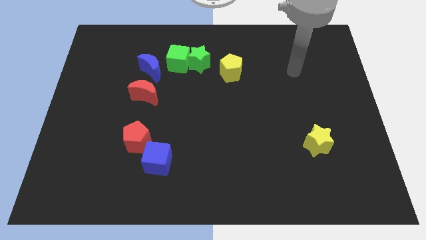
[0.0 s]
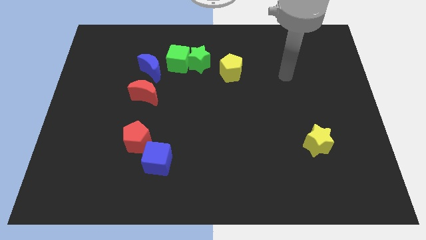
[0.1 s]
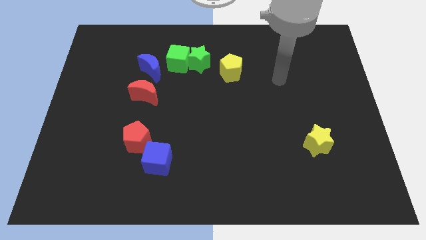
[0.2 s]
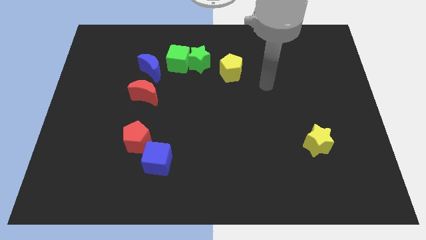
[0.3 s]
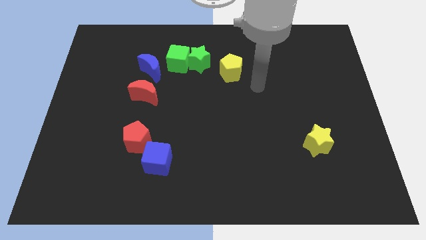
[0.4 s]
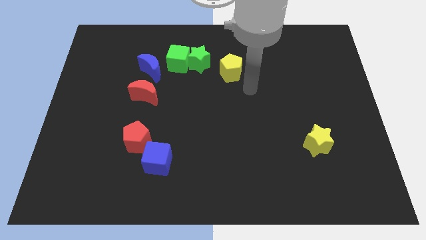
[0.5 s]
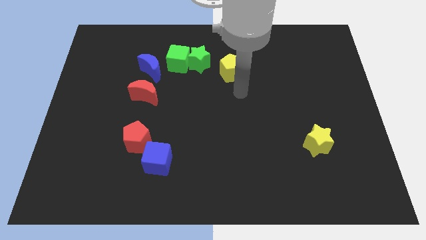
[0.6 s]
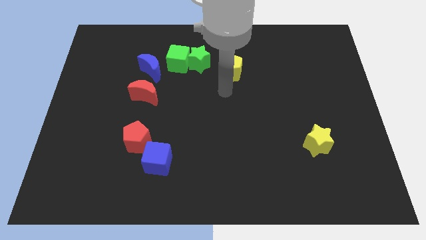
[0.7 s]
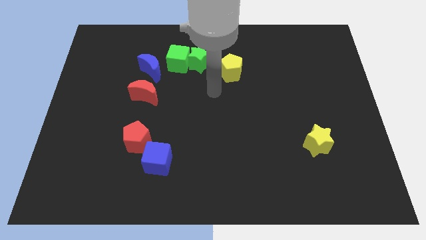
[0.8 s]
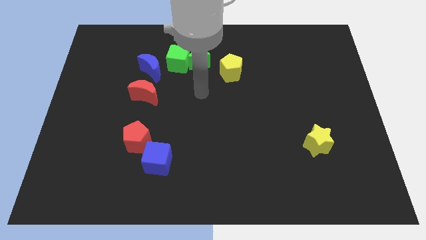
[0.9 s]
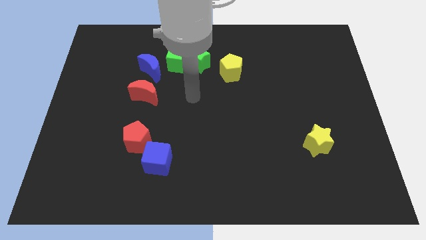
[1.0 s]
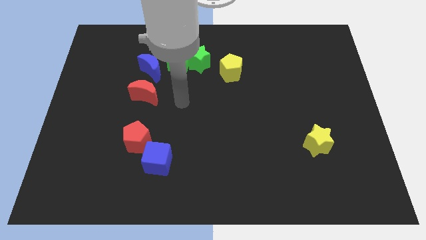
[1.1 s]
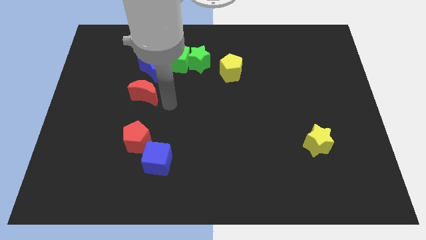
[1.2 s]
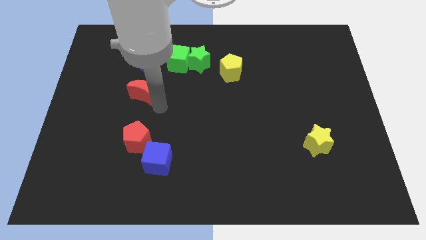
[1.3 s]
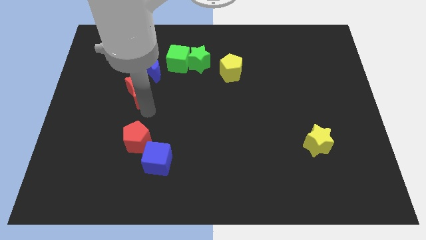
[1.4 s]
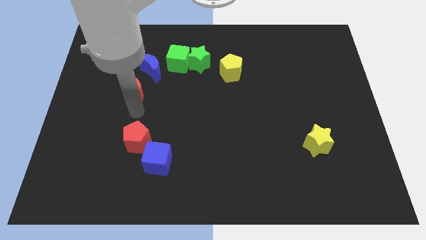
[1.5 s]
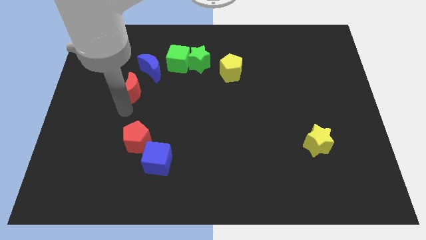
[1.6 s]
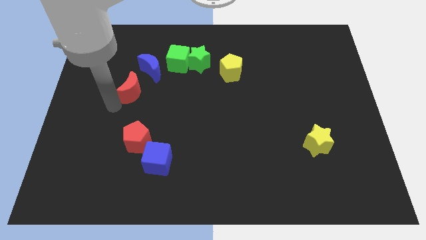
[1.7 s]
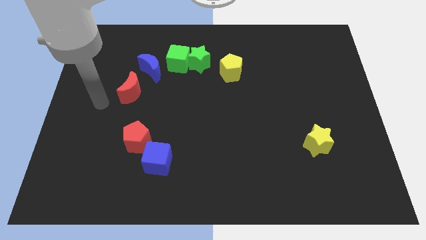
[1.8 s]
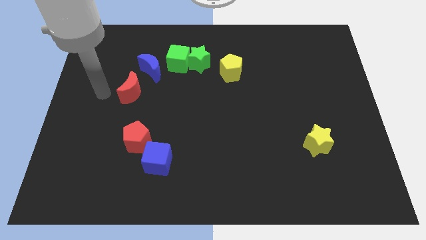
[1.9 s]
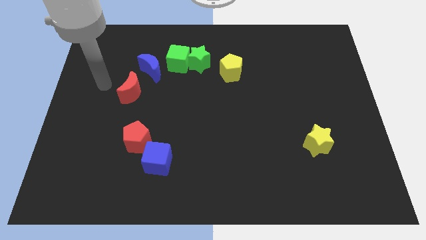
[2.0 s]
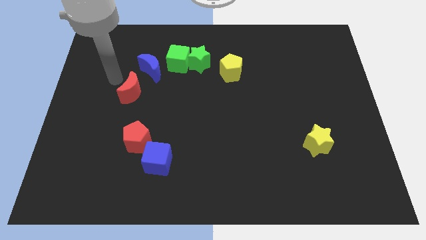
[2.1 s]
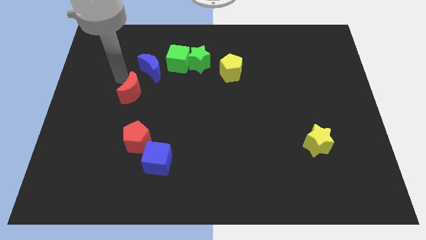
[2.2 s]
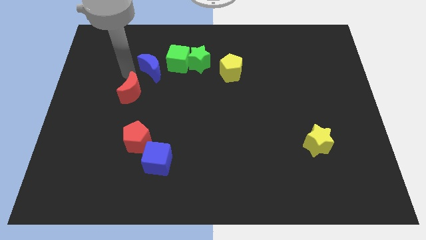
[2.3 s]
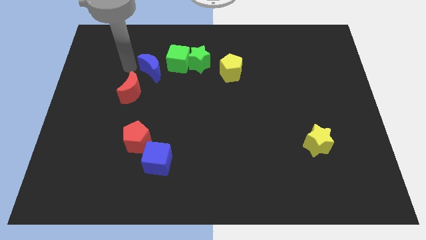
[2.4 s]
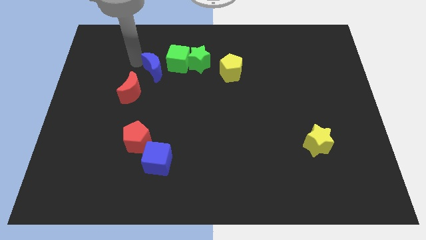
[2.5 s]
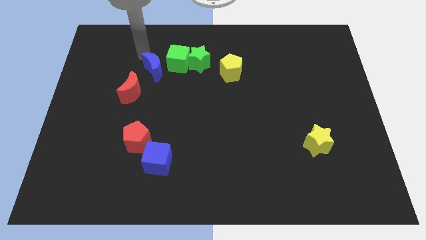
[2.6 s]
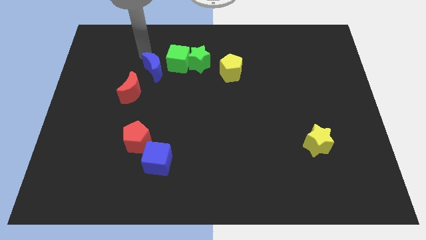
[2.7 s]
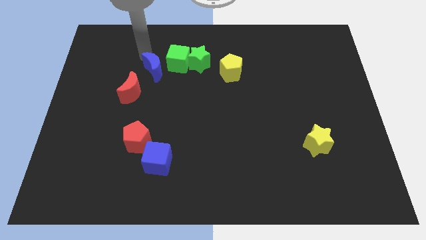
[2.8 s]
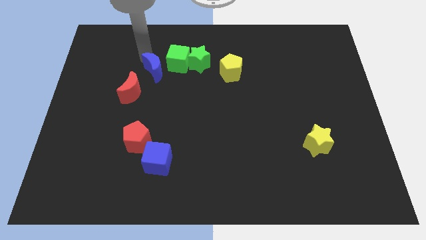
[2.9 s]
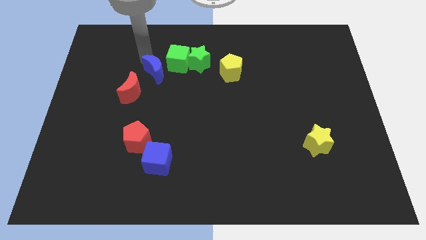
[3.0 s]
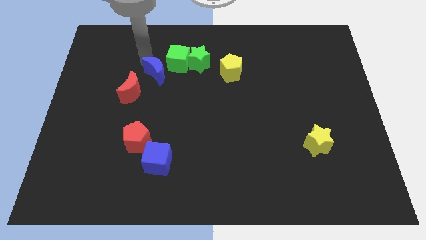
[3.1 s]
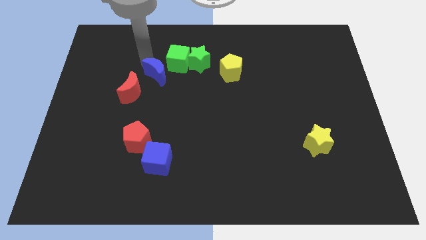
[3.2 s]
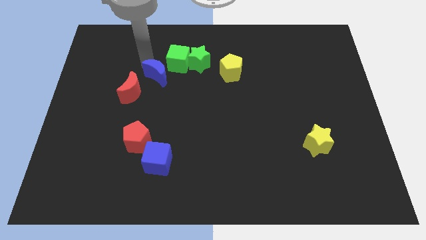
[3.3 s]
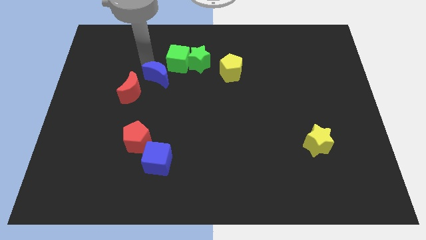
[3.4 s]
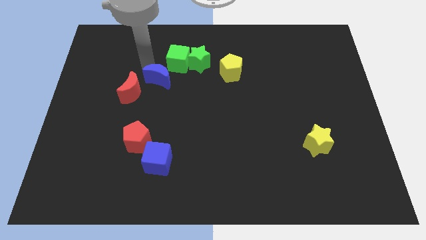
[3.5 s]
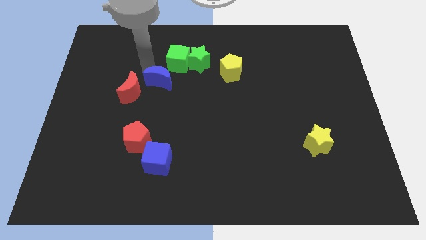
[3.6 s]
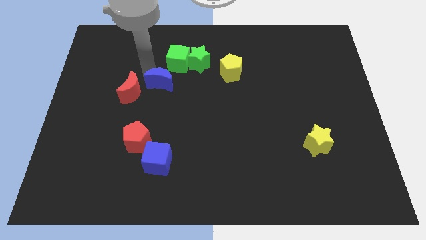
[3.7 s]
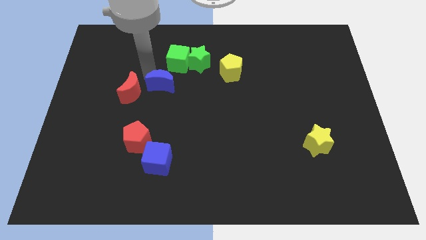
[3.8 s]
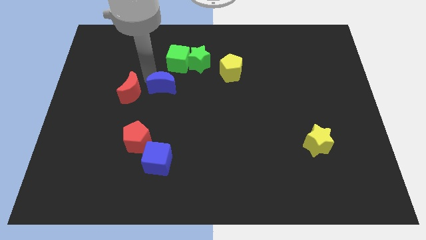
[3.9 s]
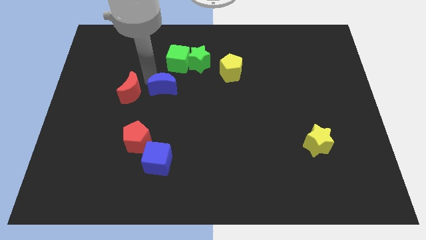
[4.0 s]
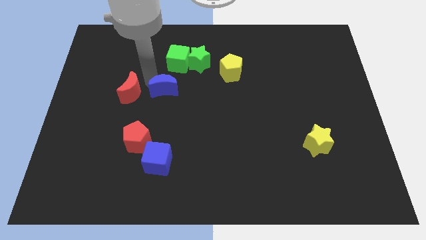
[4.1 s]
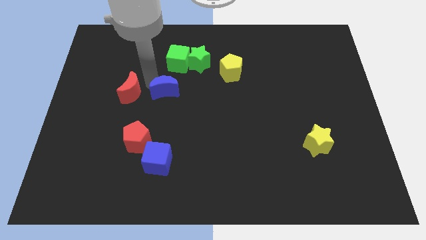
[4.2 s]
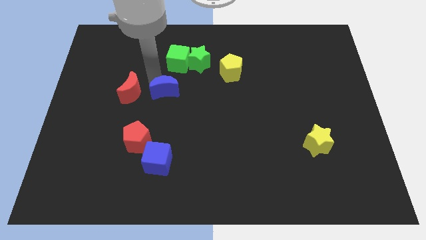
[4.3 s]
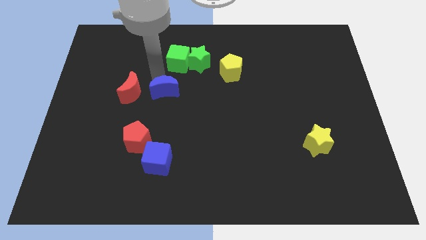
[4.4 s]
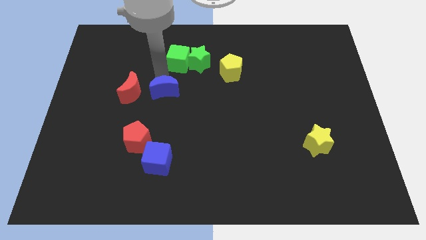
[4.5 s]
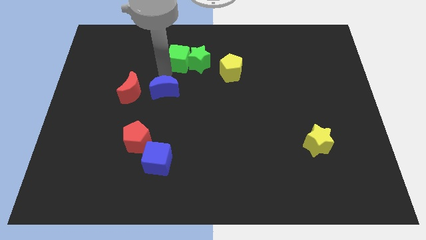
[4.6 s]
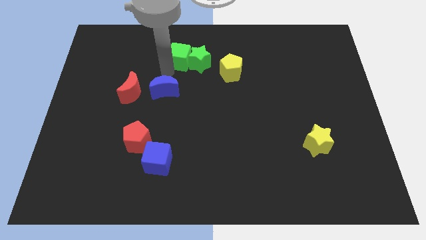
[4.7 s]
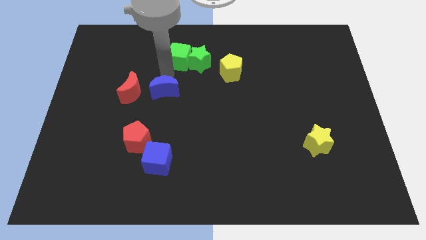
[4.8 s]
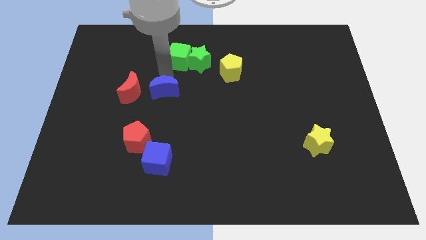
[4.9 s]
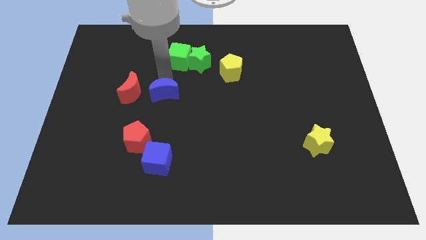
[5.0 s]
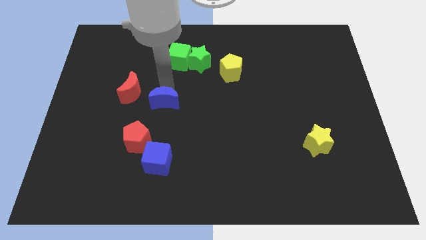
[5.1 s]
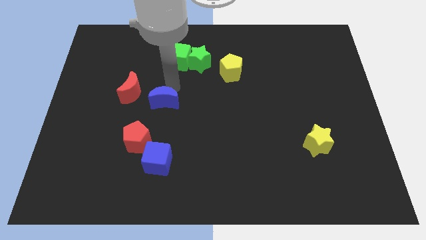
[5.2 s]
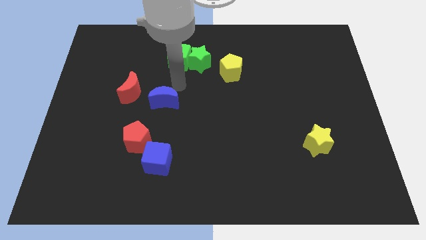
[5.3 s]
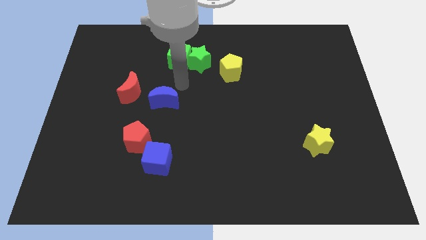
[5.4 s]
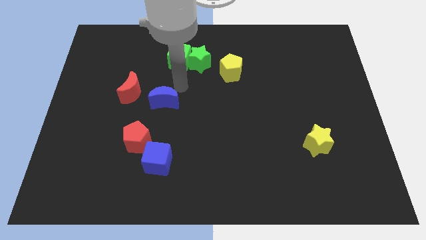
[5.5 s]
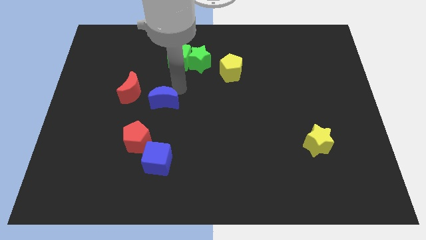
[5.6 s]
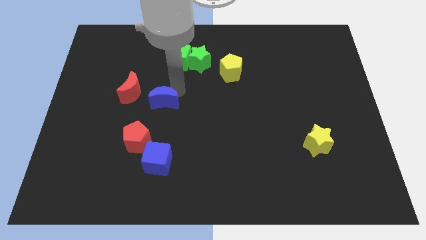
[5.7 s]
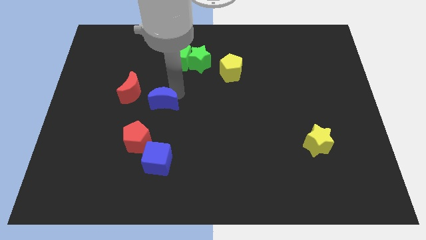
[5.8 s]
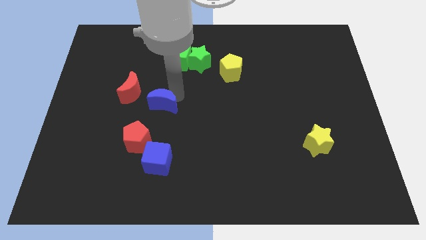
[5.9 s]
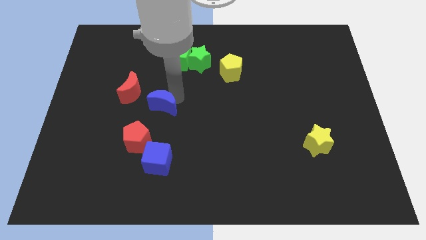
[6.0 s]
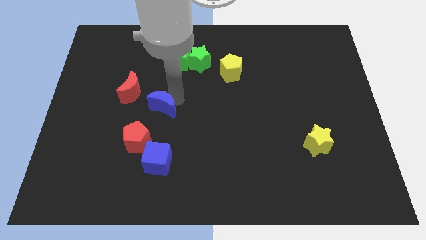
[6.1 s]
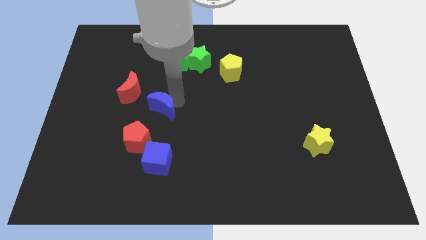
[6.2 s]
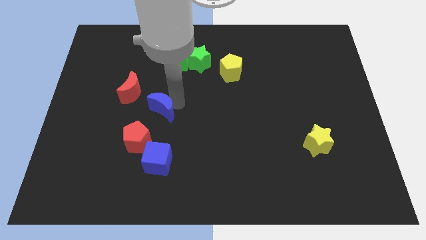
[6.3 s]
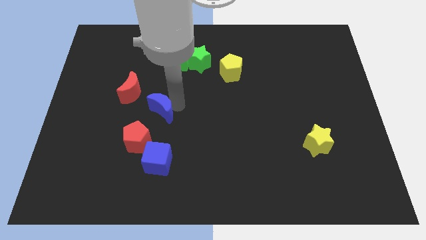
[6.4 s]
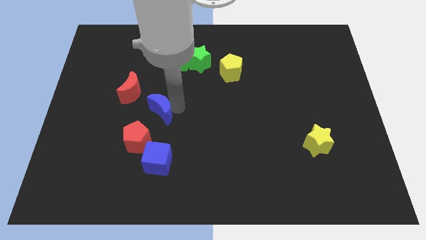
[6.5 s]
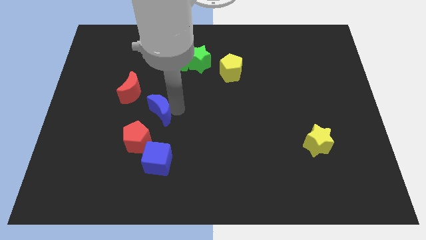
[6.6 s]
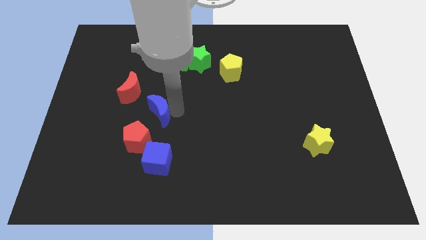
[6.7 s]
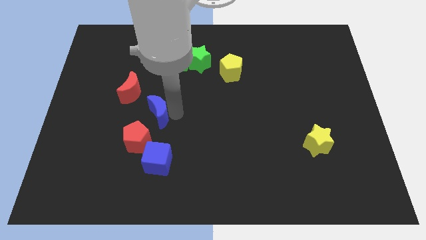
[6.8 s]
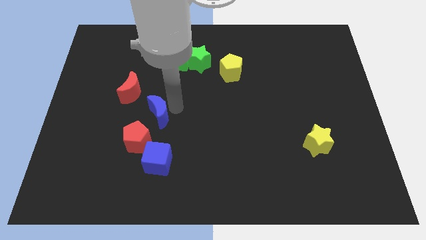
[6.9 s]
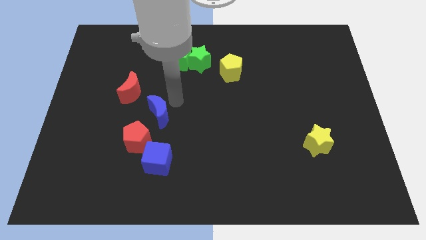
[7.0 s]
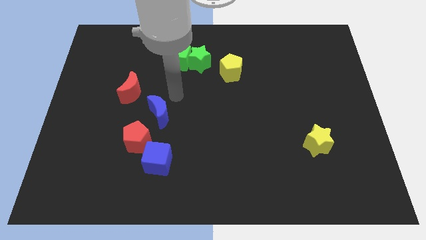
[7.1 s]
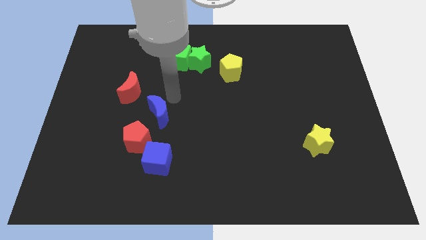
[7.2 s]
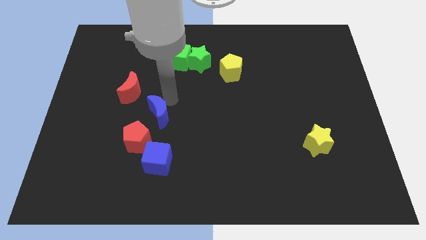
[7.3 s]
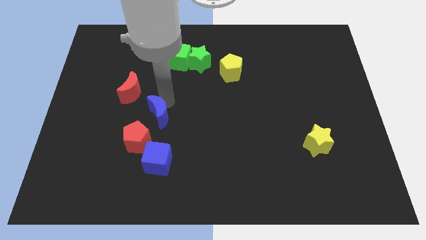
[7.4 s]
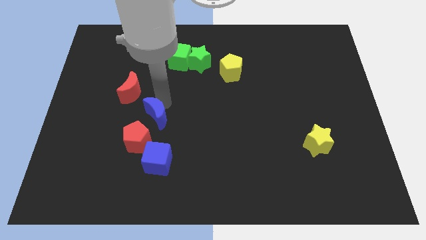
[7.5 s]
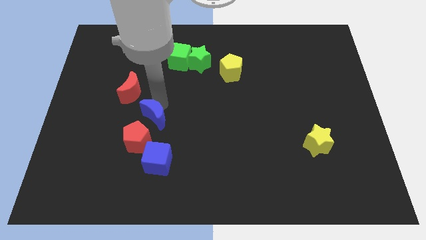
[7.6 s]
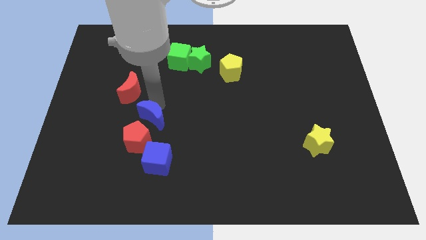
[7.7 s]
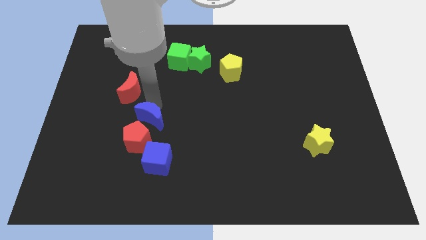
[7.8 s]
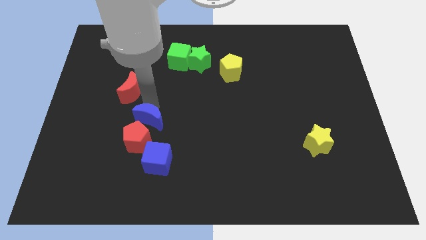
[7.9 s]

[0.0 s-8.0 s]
move the blue moon towards the red pentagon
